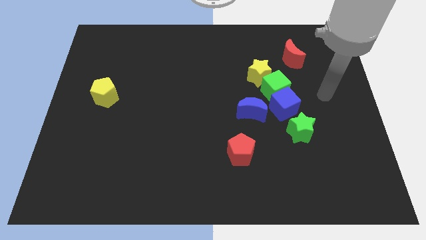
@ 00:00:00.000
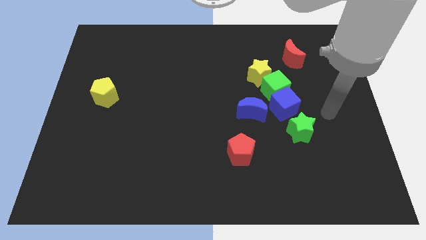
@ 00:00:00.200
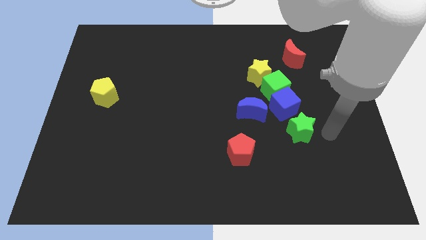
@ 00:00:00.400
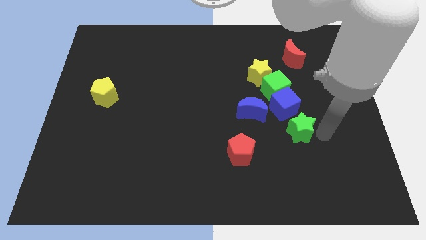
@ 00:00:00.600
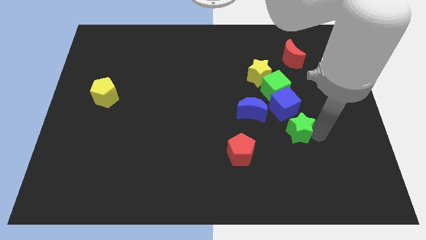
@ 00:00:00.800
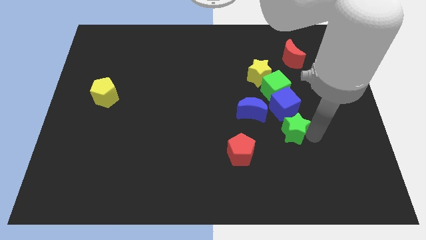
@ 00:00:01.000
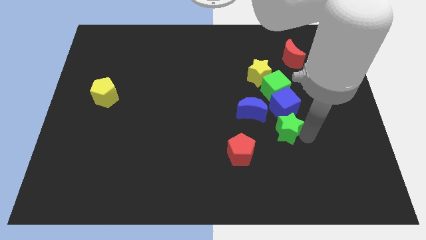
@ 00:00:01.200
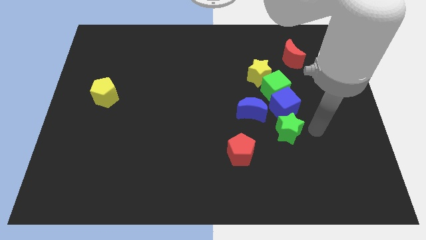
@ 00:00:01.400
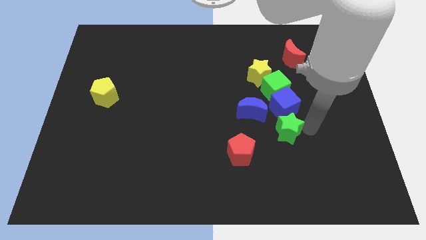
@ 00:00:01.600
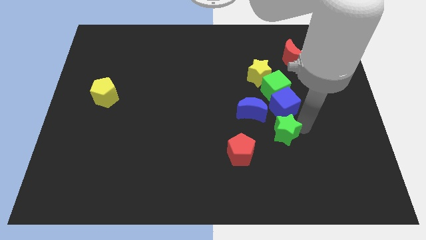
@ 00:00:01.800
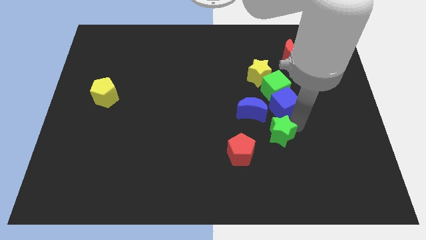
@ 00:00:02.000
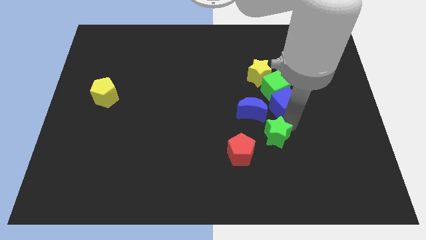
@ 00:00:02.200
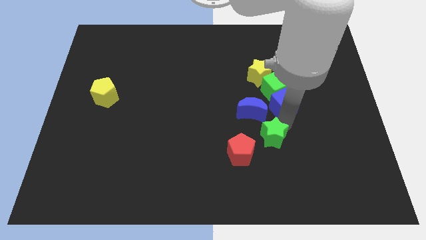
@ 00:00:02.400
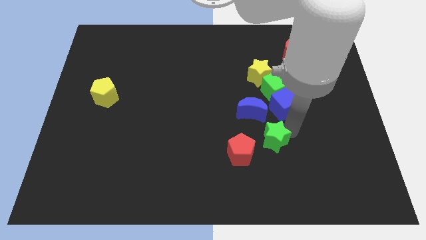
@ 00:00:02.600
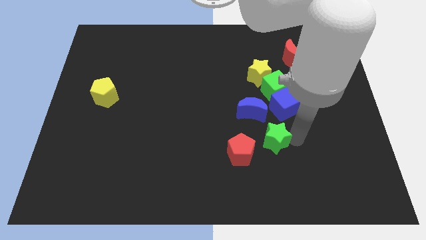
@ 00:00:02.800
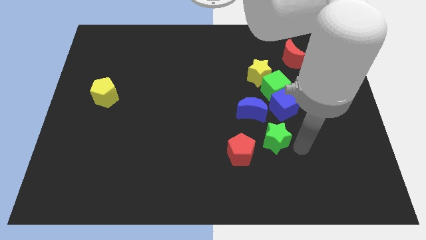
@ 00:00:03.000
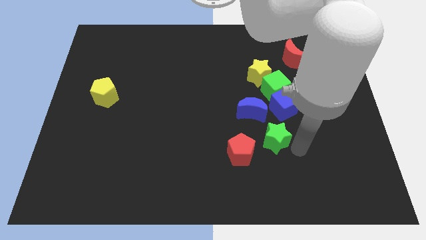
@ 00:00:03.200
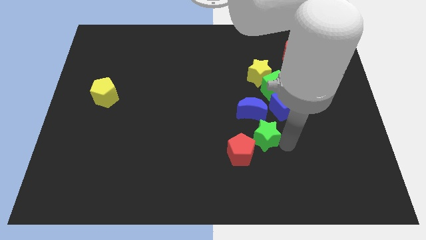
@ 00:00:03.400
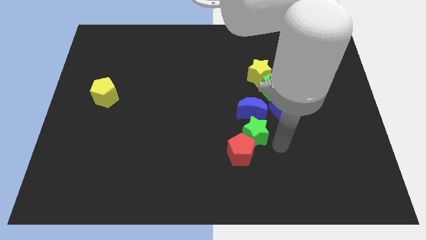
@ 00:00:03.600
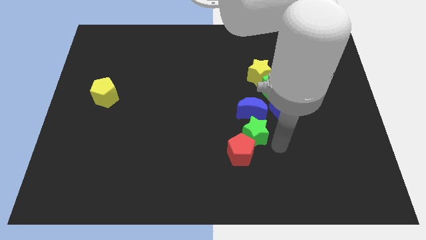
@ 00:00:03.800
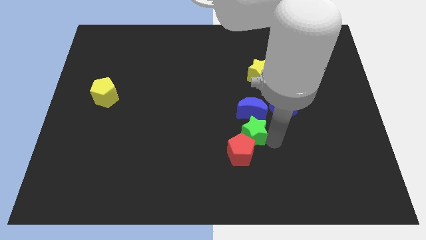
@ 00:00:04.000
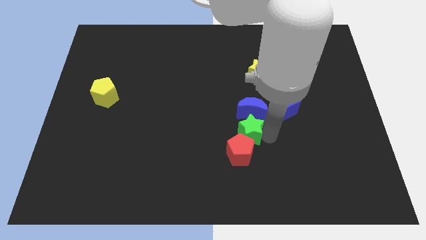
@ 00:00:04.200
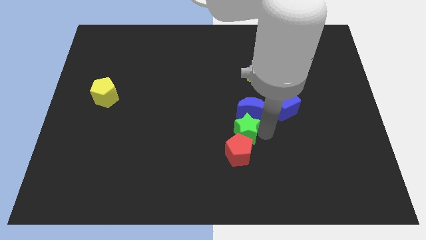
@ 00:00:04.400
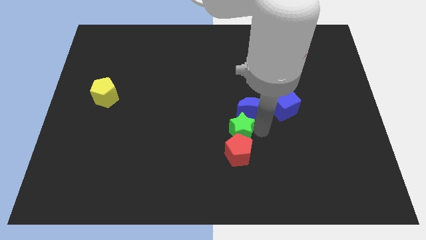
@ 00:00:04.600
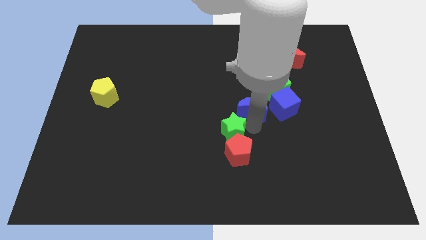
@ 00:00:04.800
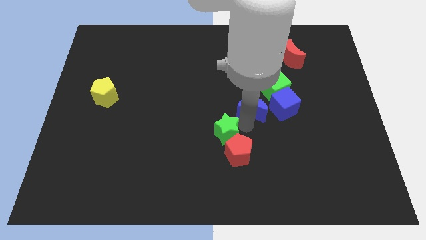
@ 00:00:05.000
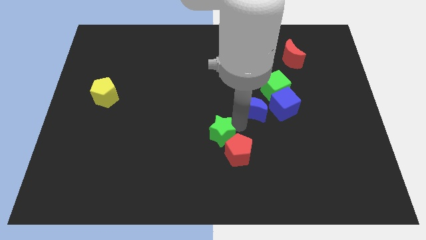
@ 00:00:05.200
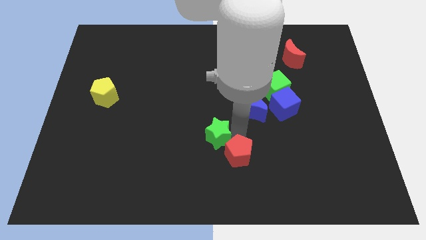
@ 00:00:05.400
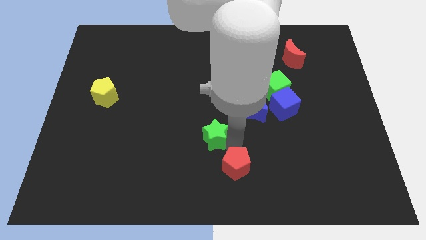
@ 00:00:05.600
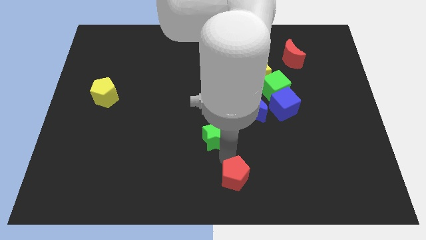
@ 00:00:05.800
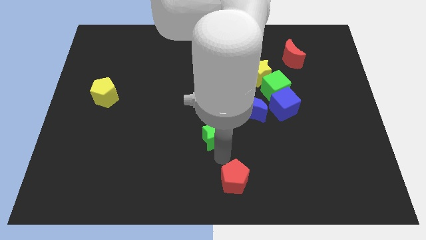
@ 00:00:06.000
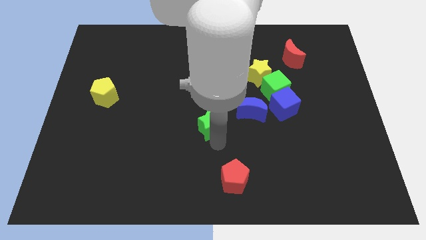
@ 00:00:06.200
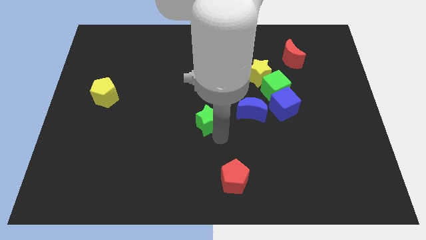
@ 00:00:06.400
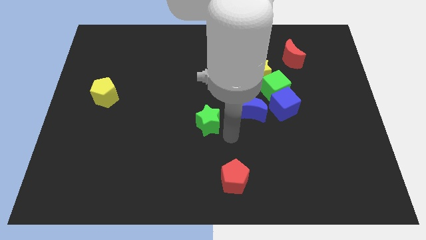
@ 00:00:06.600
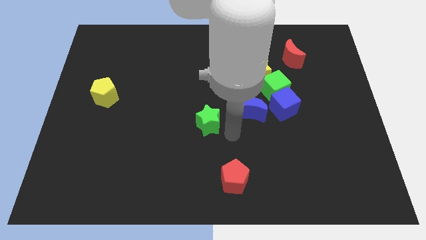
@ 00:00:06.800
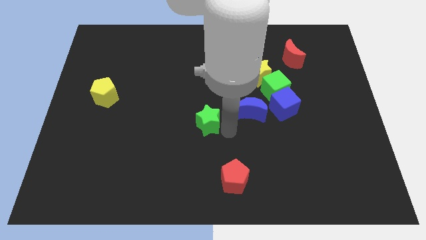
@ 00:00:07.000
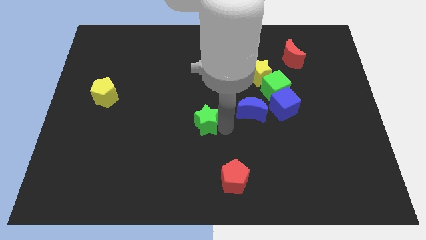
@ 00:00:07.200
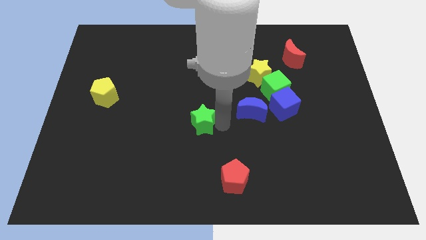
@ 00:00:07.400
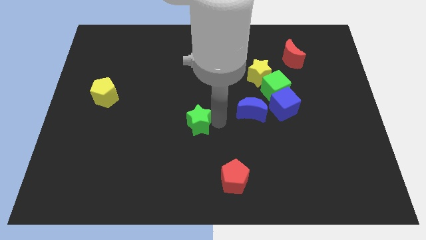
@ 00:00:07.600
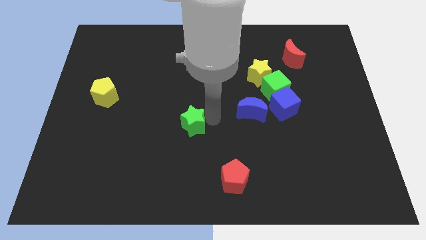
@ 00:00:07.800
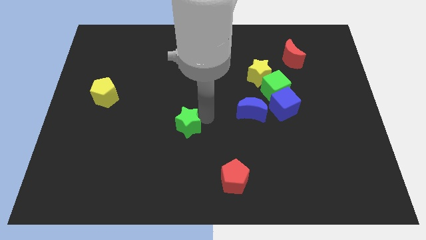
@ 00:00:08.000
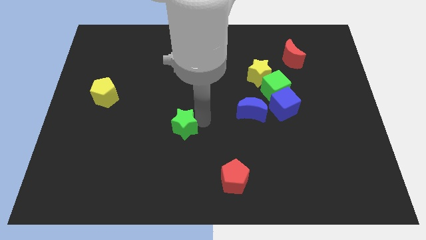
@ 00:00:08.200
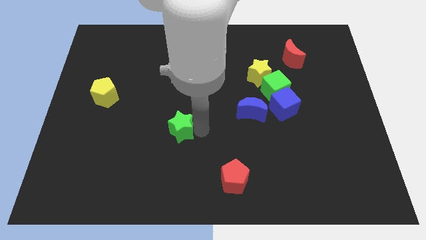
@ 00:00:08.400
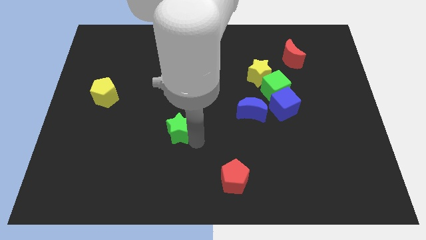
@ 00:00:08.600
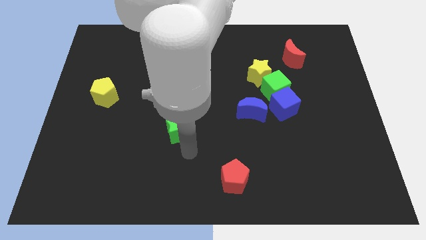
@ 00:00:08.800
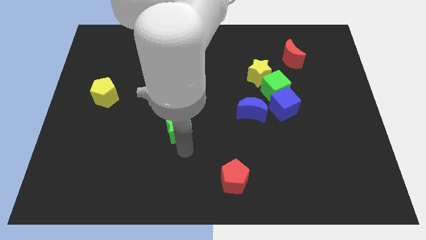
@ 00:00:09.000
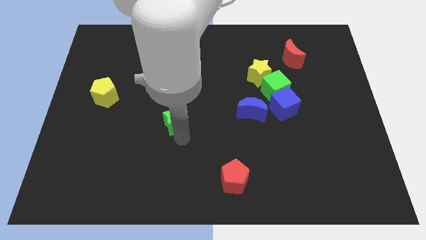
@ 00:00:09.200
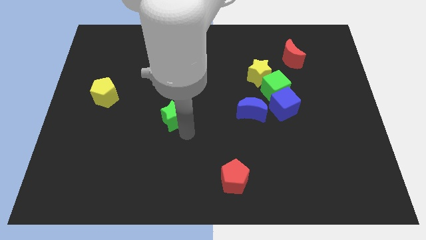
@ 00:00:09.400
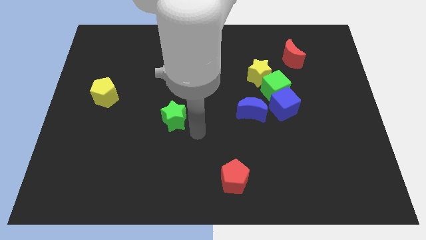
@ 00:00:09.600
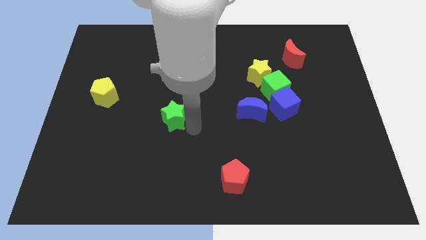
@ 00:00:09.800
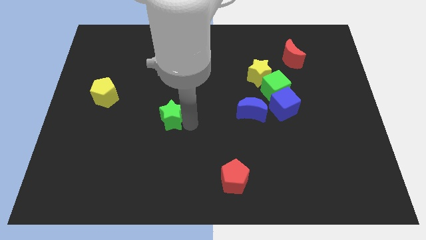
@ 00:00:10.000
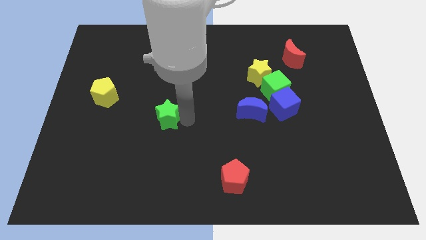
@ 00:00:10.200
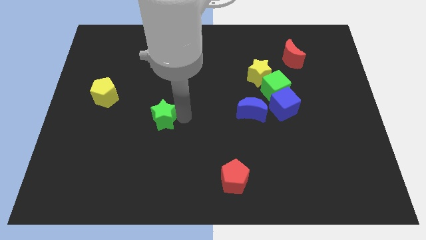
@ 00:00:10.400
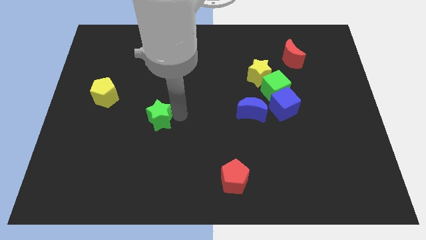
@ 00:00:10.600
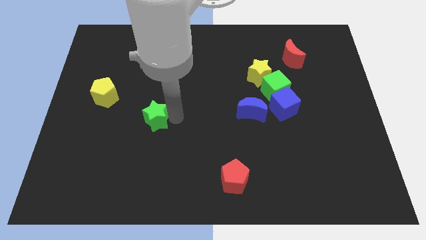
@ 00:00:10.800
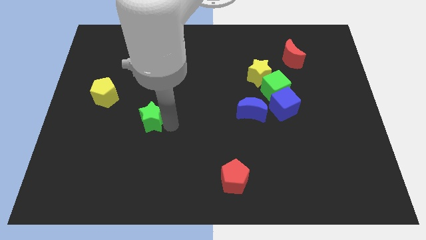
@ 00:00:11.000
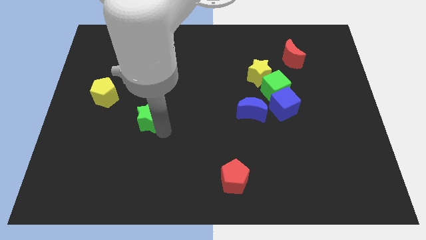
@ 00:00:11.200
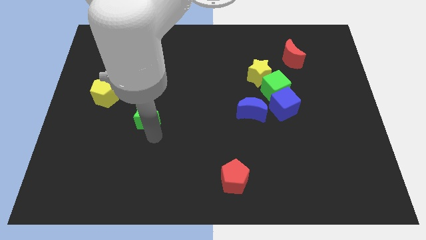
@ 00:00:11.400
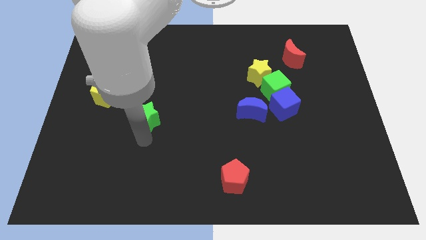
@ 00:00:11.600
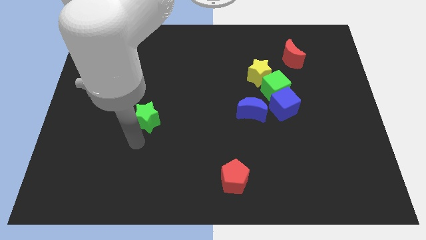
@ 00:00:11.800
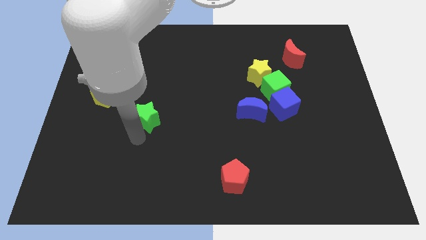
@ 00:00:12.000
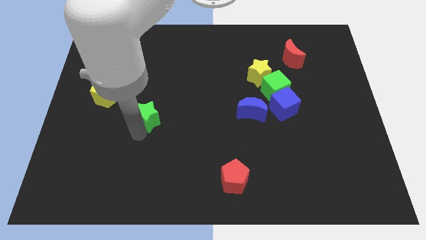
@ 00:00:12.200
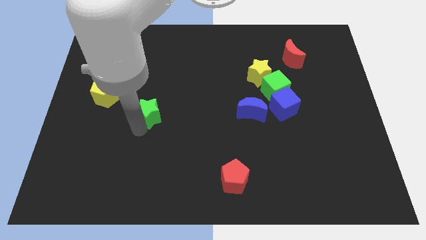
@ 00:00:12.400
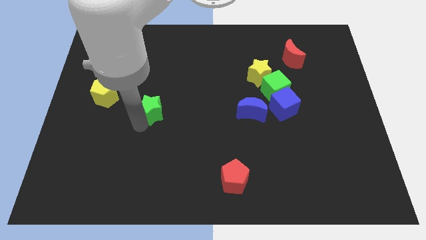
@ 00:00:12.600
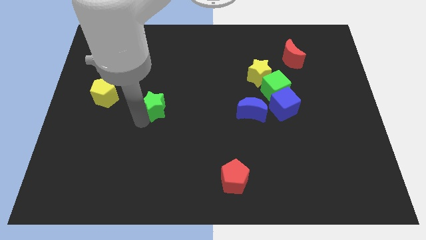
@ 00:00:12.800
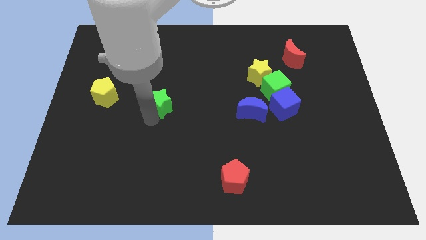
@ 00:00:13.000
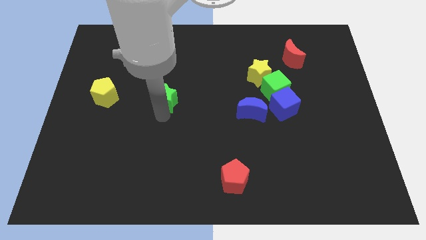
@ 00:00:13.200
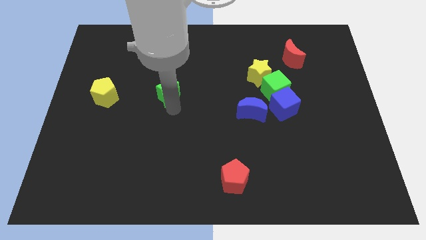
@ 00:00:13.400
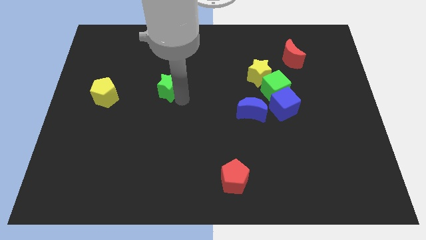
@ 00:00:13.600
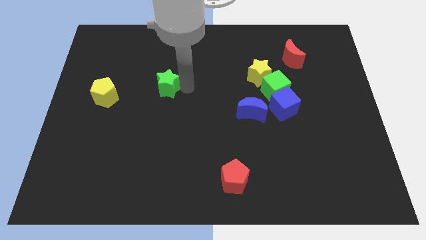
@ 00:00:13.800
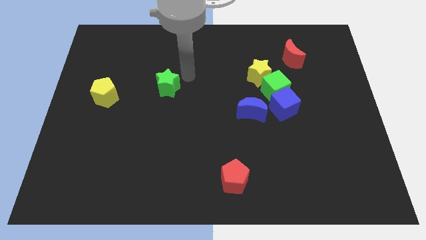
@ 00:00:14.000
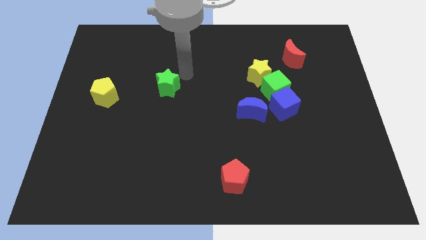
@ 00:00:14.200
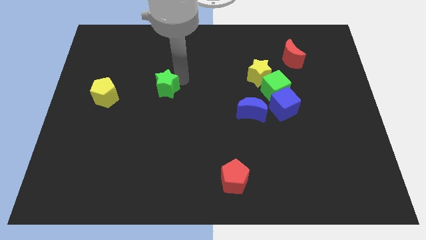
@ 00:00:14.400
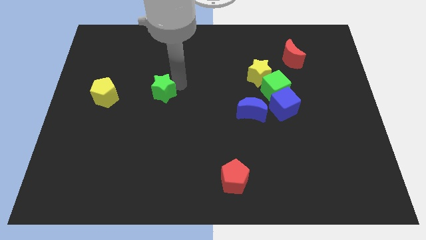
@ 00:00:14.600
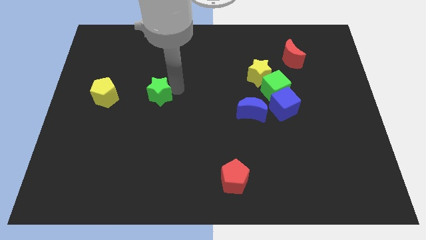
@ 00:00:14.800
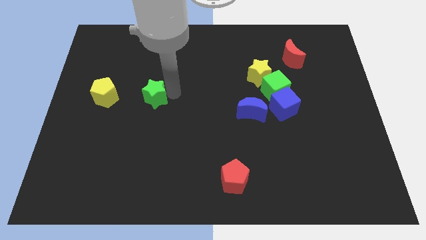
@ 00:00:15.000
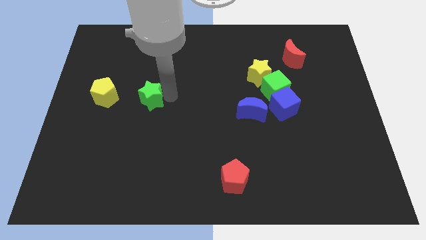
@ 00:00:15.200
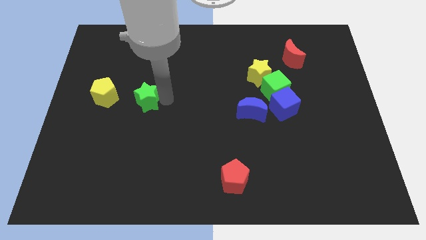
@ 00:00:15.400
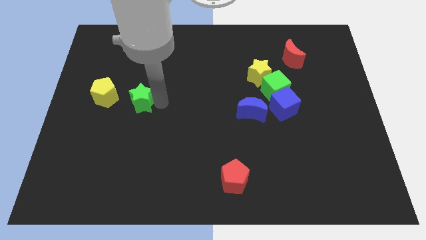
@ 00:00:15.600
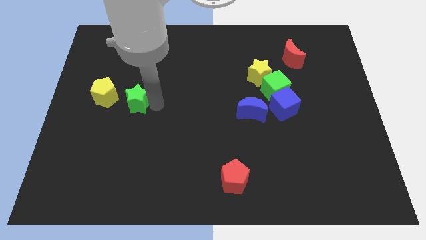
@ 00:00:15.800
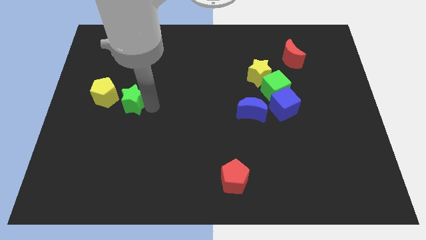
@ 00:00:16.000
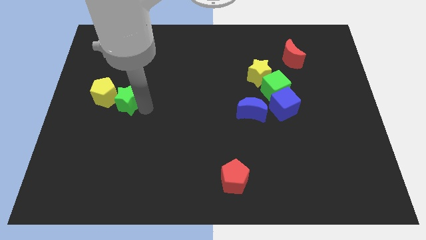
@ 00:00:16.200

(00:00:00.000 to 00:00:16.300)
slide the green star close to the yellow pentagon
